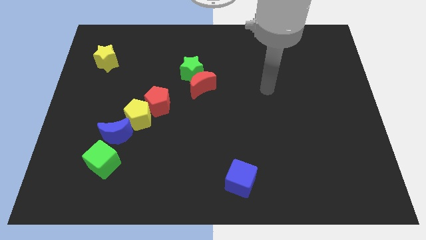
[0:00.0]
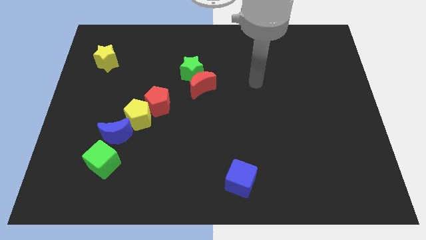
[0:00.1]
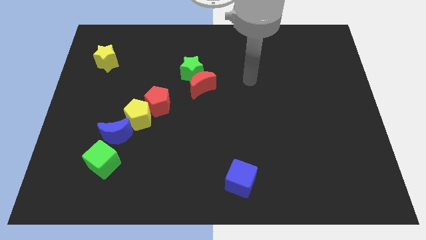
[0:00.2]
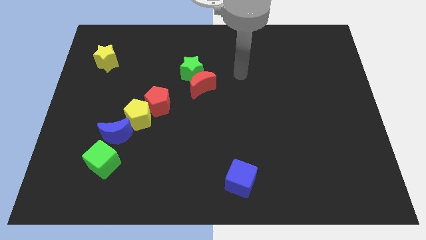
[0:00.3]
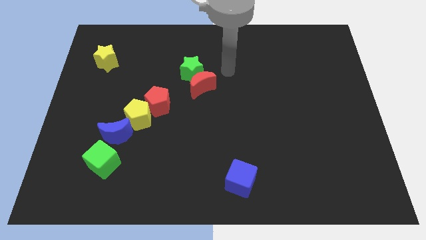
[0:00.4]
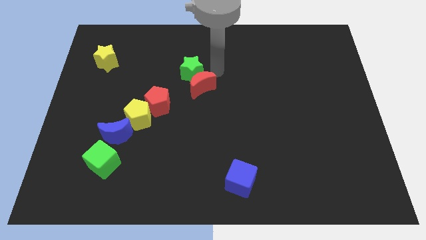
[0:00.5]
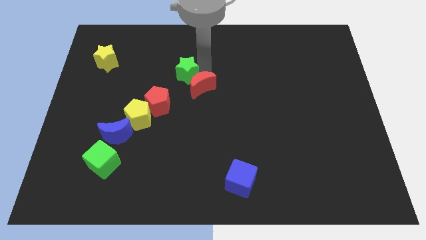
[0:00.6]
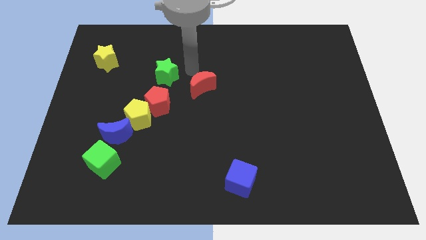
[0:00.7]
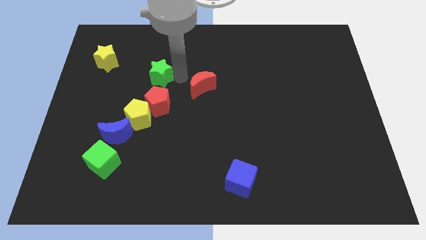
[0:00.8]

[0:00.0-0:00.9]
move the red moon away from the green star

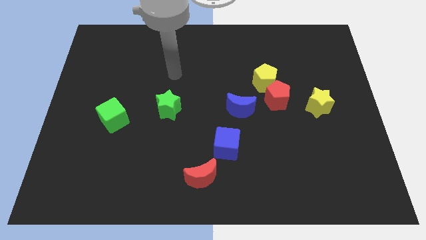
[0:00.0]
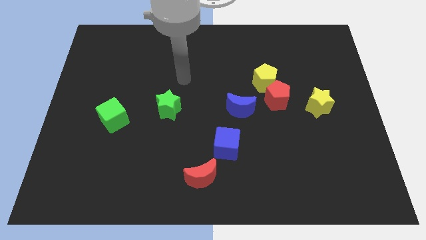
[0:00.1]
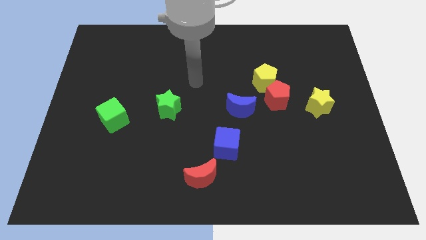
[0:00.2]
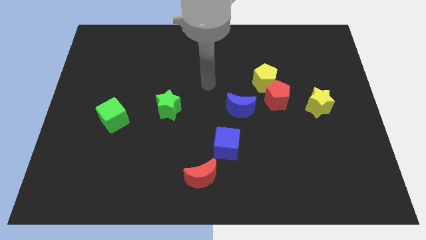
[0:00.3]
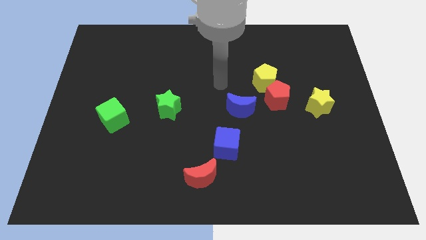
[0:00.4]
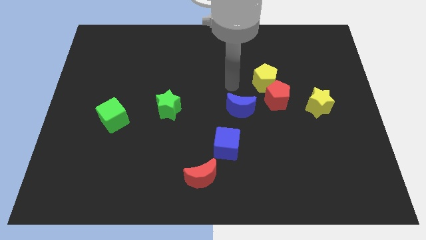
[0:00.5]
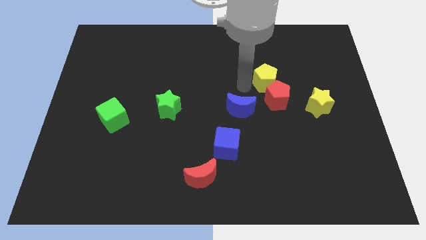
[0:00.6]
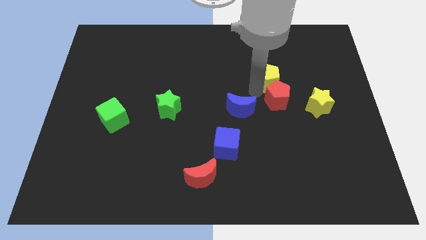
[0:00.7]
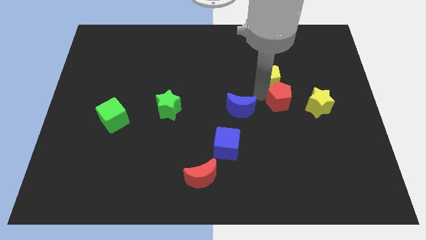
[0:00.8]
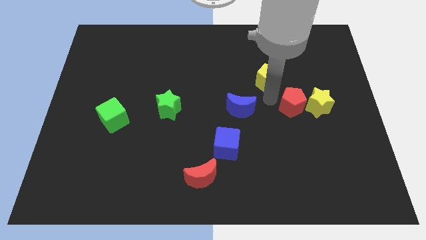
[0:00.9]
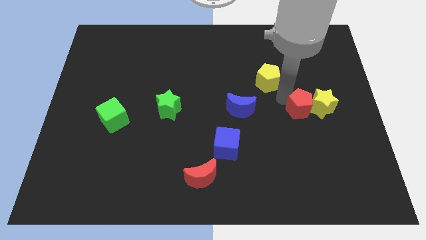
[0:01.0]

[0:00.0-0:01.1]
pull the yellow pentagon apart from the red pentagon

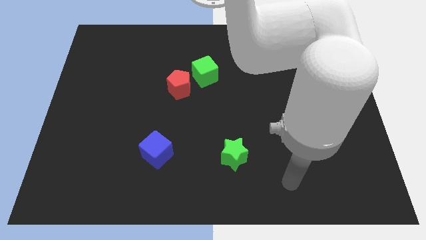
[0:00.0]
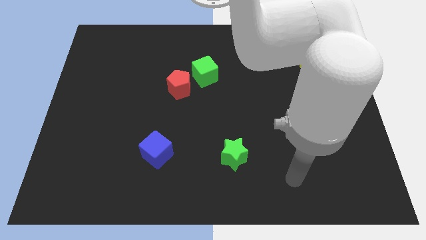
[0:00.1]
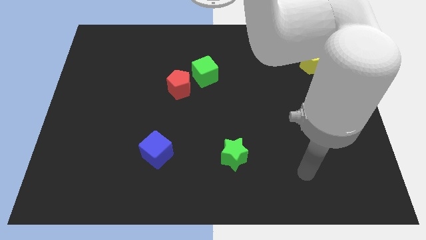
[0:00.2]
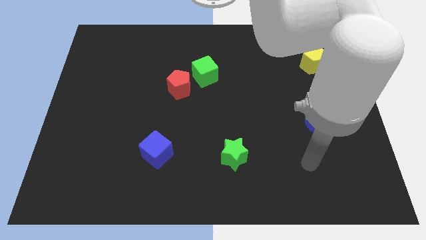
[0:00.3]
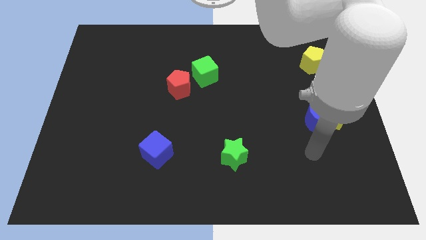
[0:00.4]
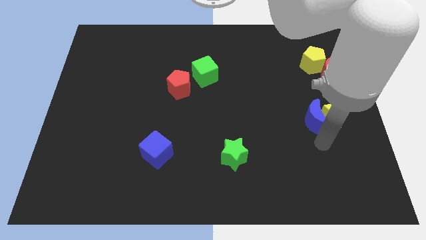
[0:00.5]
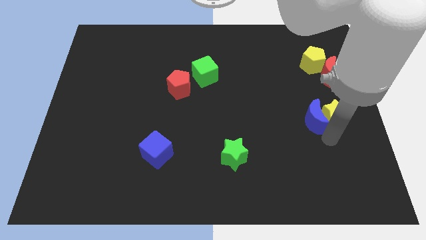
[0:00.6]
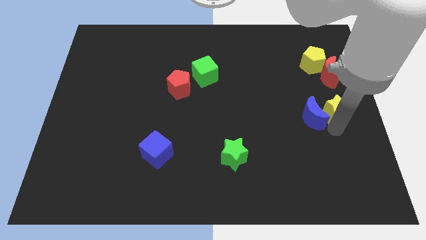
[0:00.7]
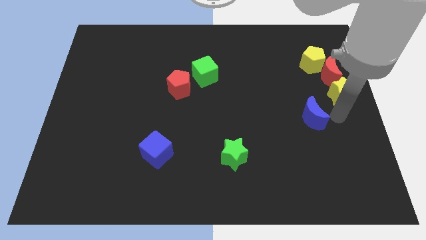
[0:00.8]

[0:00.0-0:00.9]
pull the blue moon apart from the yellow star

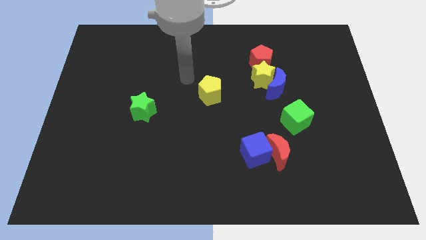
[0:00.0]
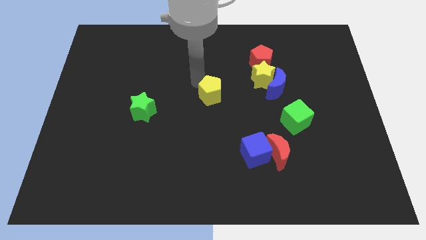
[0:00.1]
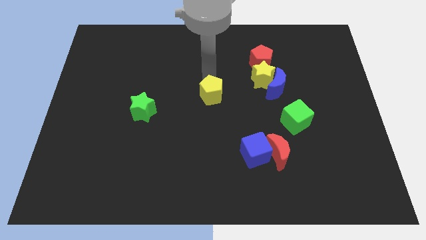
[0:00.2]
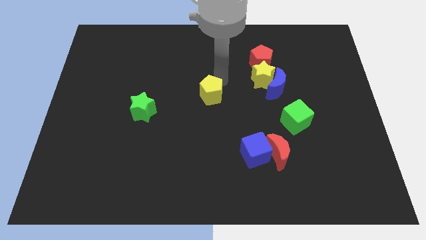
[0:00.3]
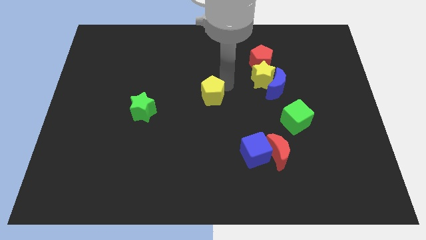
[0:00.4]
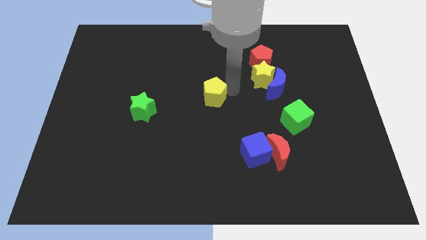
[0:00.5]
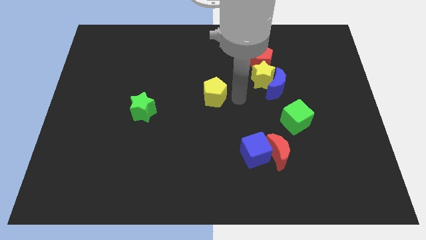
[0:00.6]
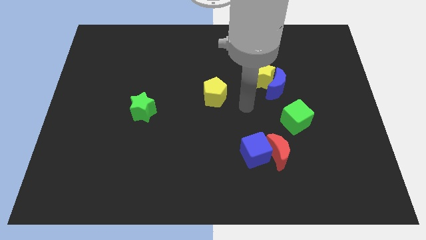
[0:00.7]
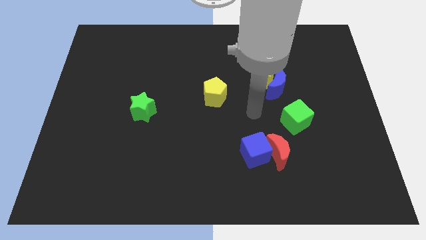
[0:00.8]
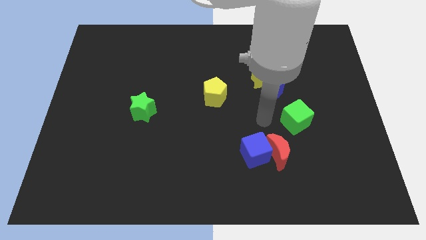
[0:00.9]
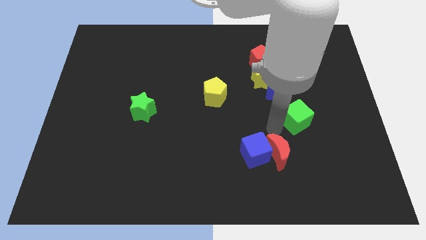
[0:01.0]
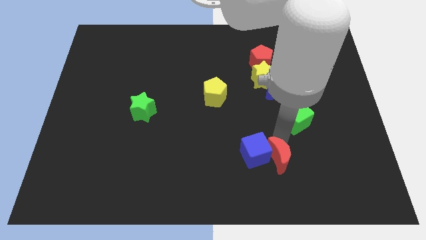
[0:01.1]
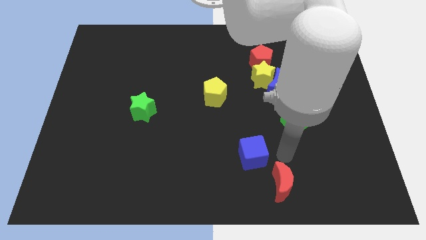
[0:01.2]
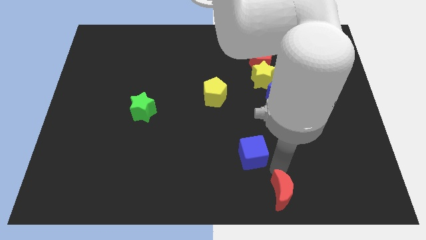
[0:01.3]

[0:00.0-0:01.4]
separate the blue cube from the red moon

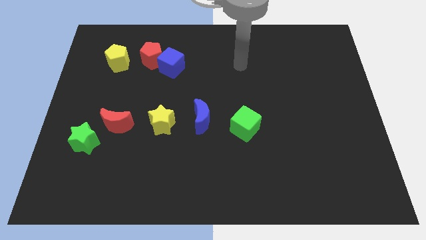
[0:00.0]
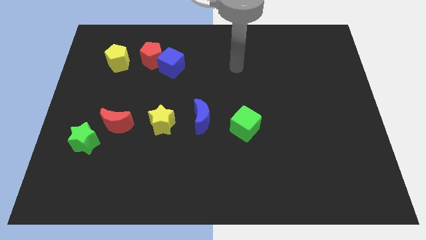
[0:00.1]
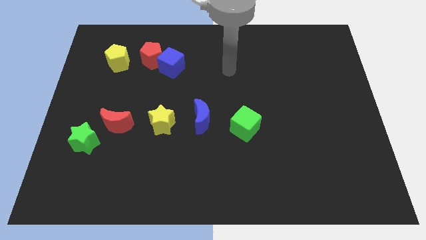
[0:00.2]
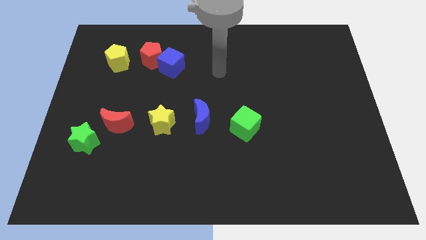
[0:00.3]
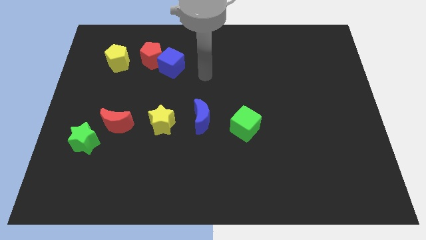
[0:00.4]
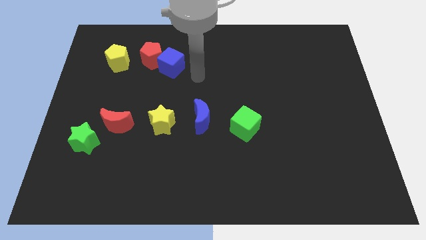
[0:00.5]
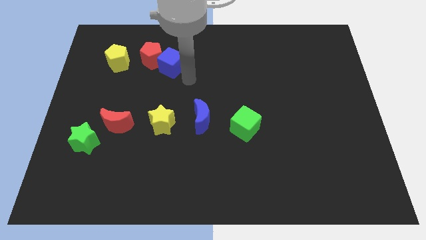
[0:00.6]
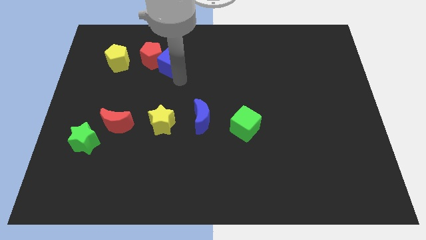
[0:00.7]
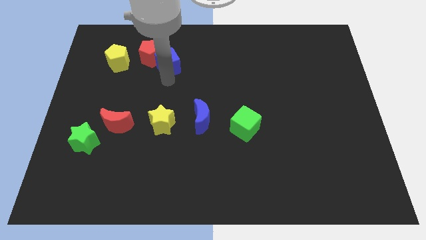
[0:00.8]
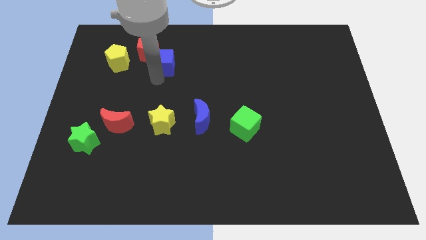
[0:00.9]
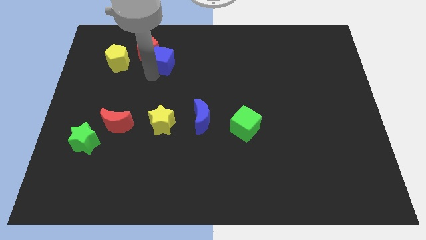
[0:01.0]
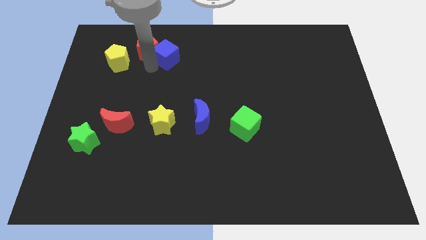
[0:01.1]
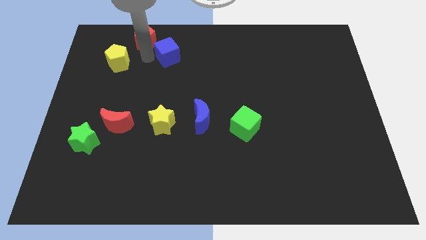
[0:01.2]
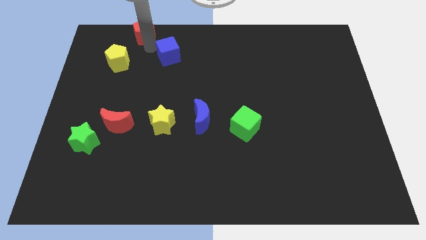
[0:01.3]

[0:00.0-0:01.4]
pull the blue cube apart from the red pentagon

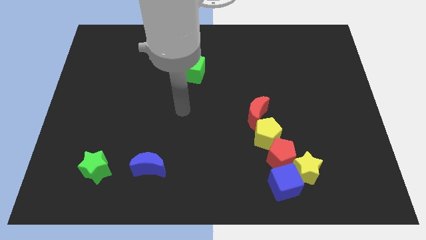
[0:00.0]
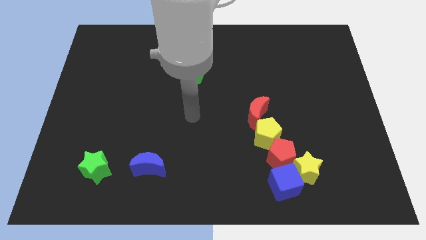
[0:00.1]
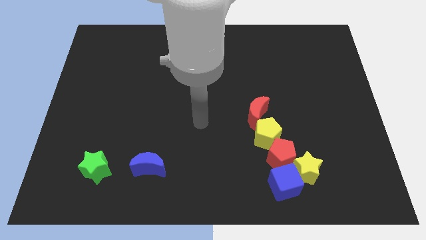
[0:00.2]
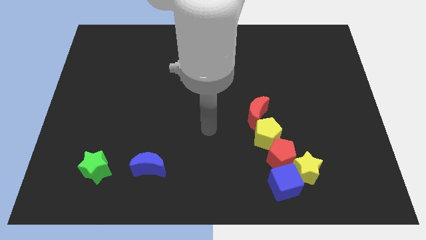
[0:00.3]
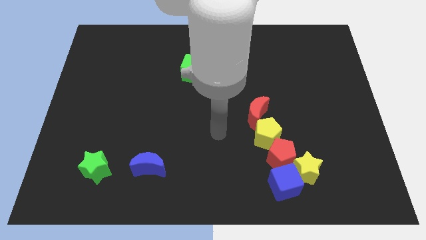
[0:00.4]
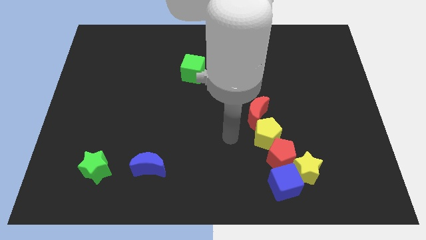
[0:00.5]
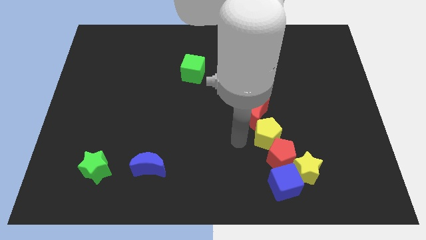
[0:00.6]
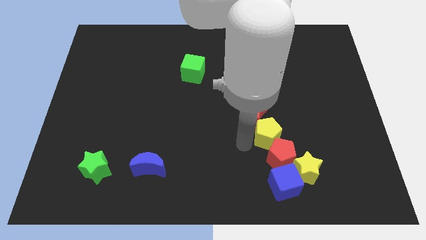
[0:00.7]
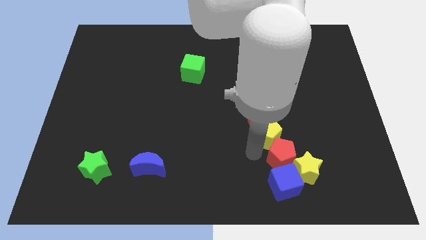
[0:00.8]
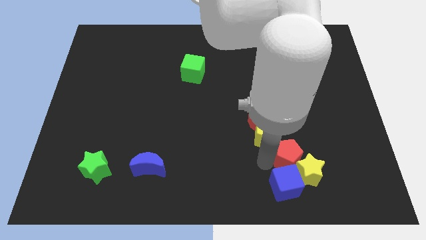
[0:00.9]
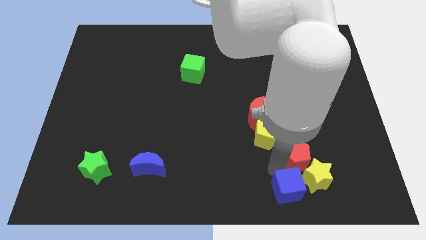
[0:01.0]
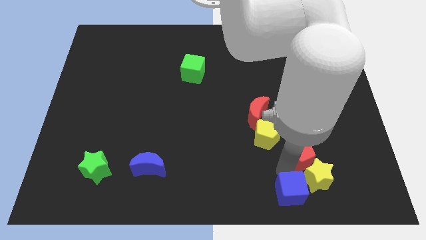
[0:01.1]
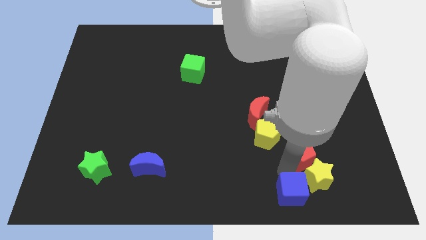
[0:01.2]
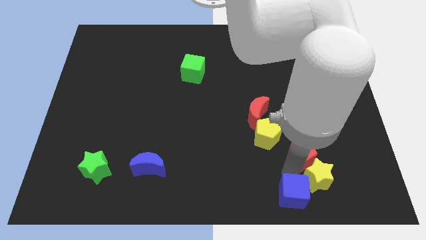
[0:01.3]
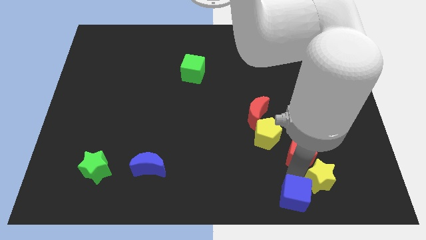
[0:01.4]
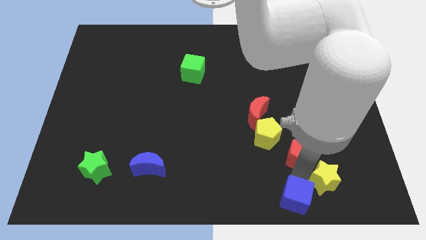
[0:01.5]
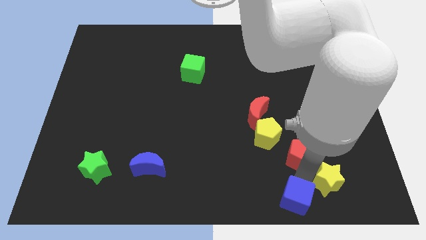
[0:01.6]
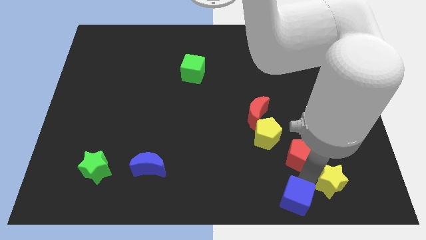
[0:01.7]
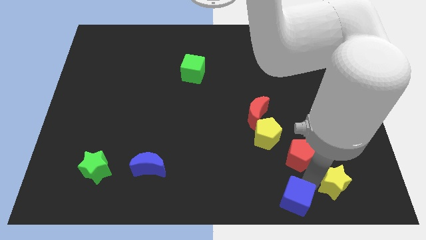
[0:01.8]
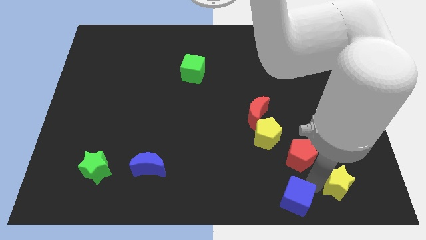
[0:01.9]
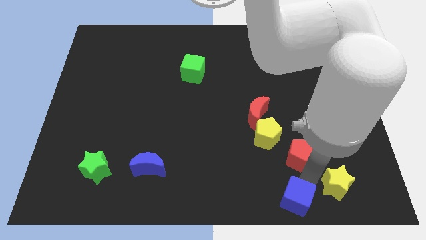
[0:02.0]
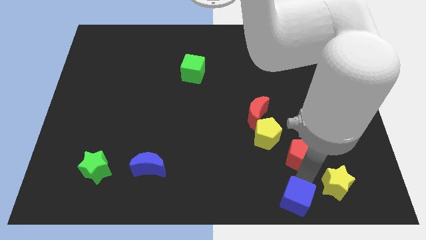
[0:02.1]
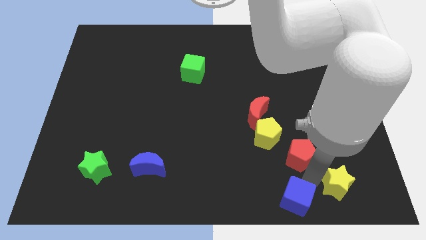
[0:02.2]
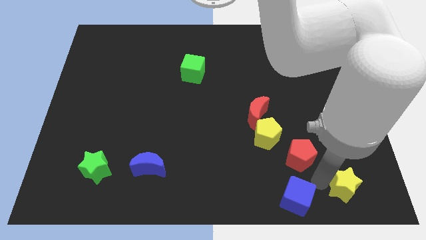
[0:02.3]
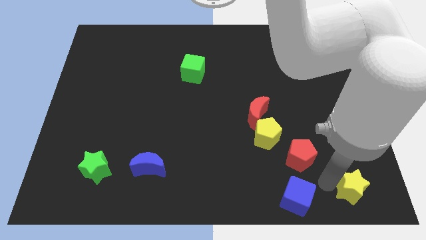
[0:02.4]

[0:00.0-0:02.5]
move the yellow star away from the blue cube and red pentagon

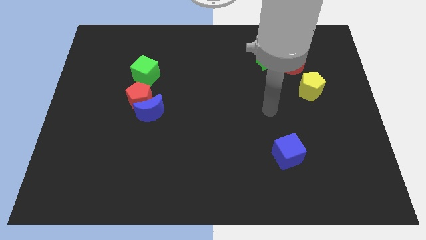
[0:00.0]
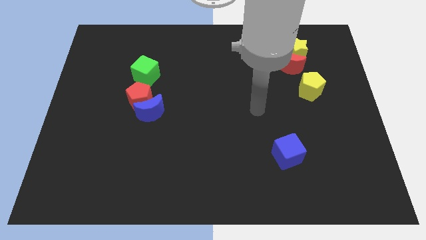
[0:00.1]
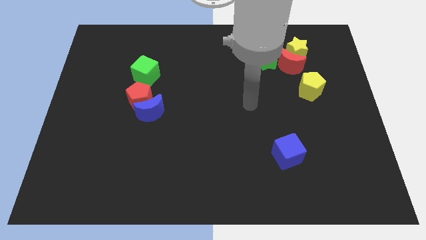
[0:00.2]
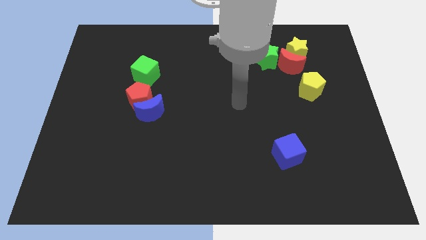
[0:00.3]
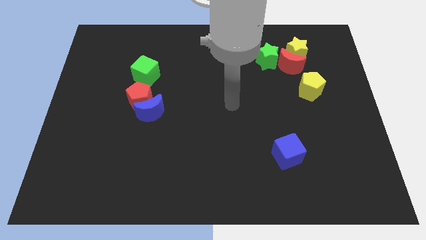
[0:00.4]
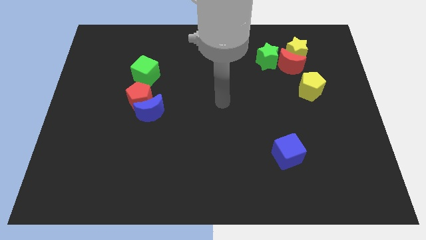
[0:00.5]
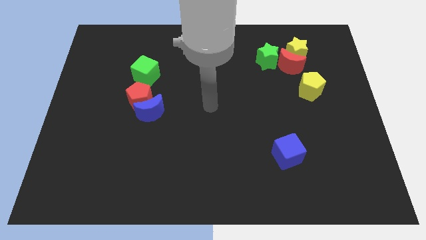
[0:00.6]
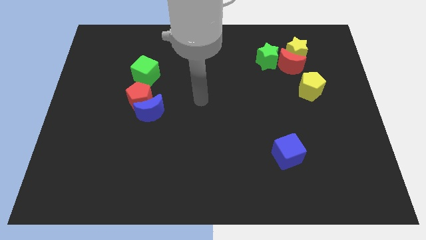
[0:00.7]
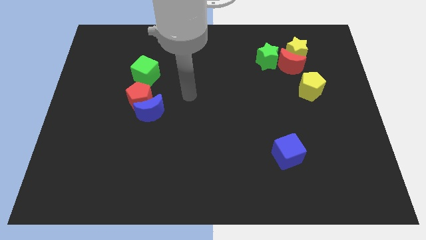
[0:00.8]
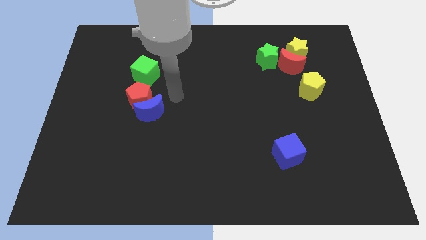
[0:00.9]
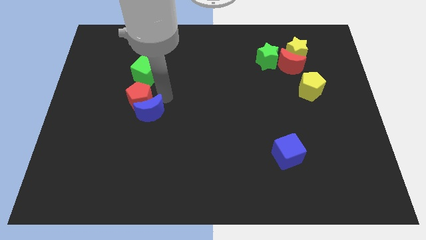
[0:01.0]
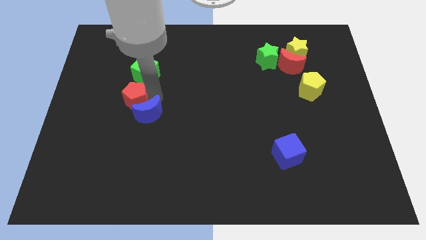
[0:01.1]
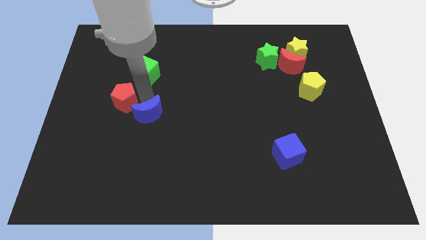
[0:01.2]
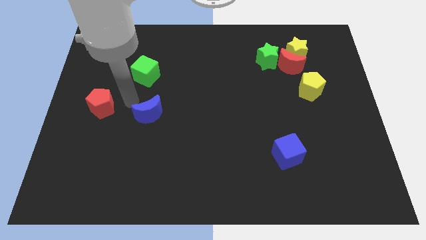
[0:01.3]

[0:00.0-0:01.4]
separate the blue moon from the red pentagon
